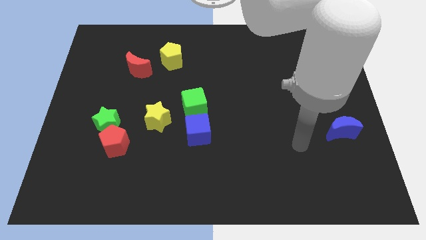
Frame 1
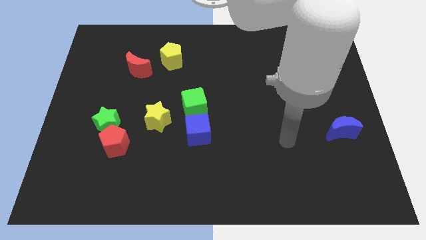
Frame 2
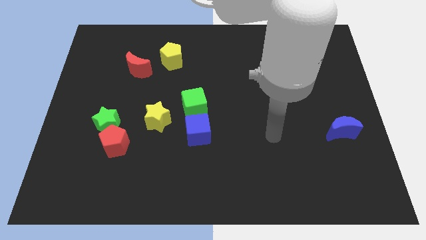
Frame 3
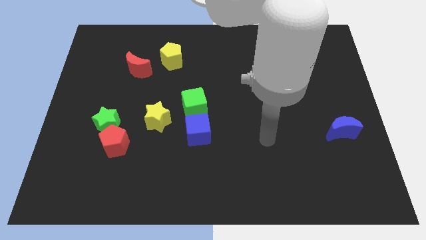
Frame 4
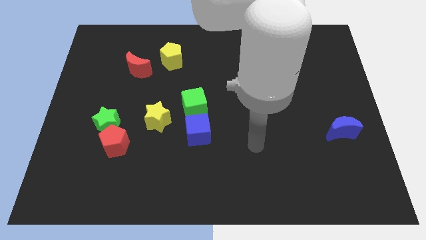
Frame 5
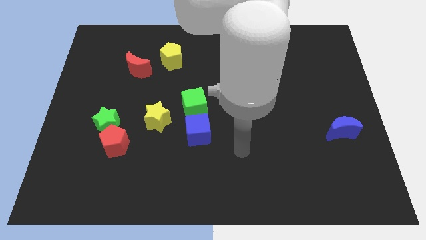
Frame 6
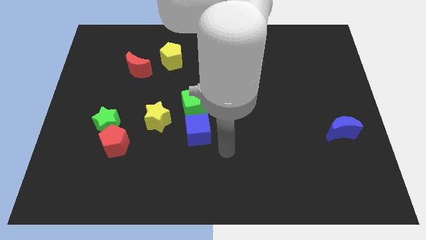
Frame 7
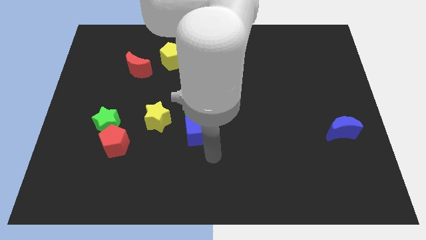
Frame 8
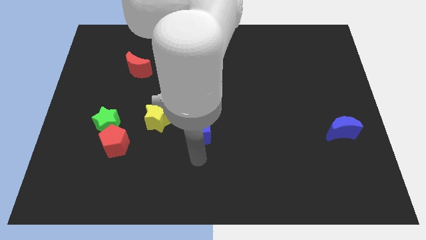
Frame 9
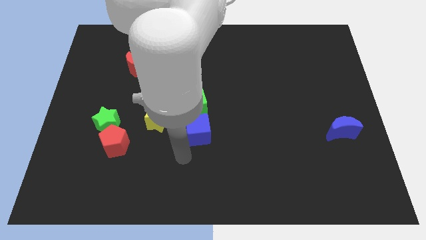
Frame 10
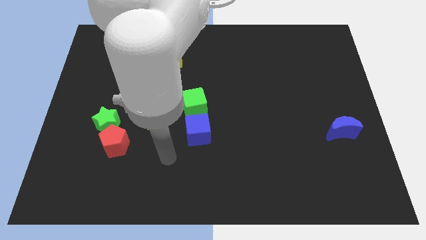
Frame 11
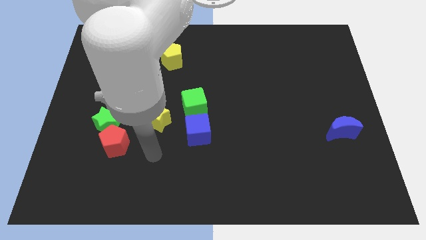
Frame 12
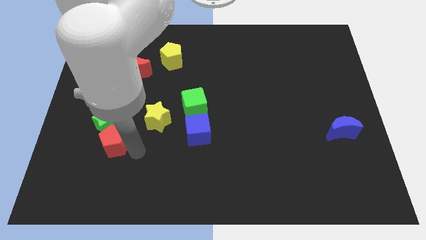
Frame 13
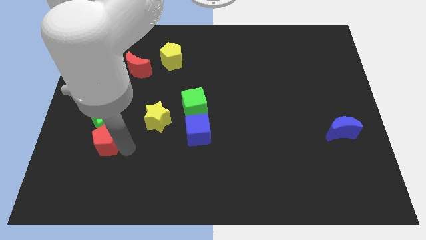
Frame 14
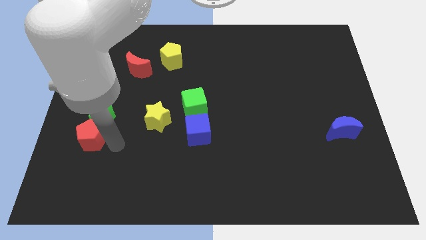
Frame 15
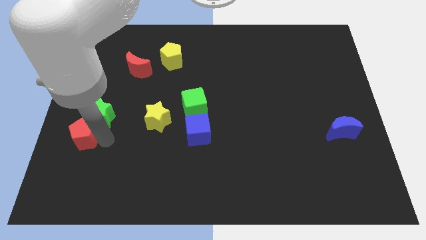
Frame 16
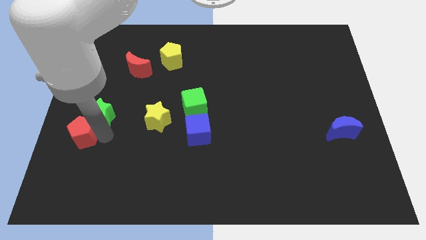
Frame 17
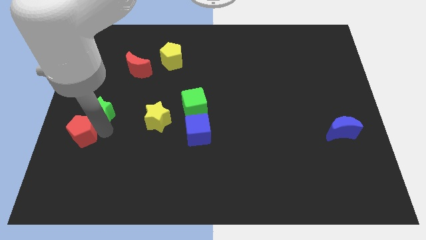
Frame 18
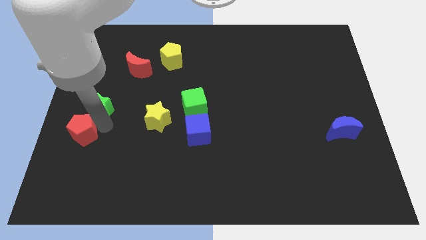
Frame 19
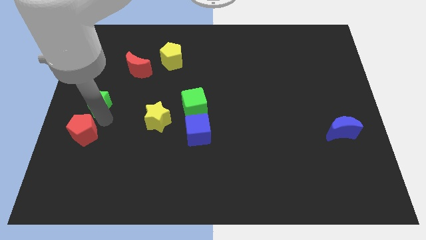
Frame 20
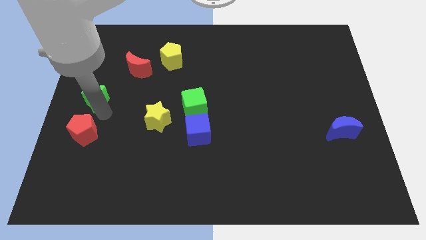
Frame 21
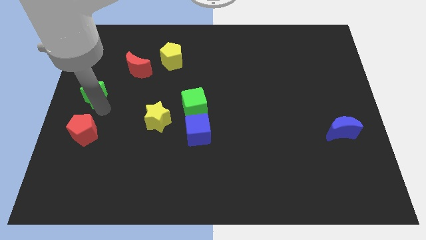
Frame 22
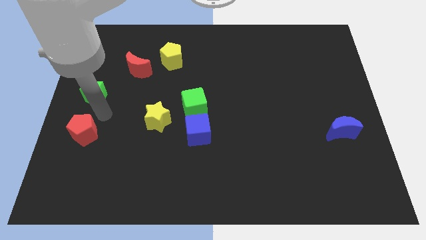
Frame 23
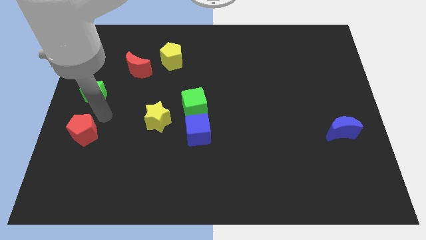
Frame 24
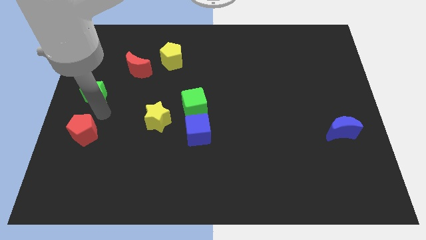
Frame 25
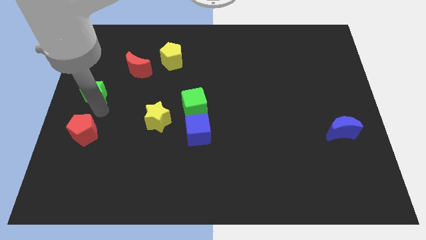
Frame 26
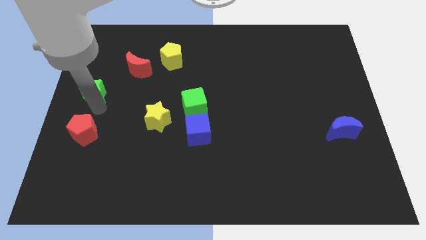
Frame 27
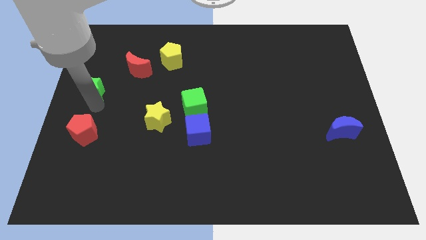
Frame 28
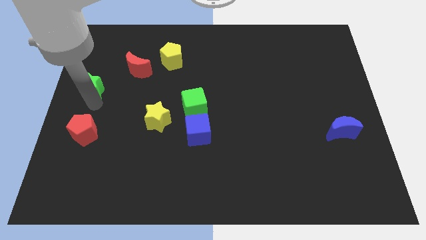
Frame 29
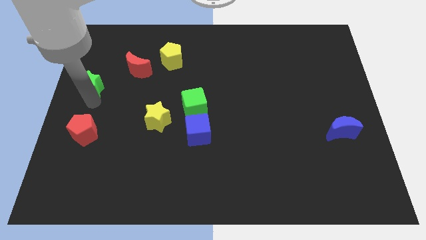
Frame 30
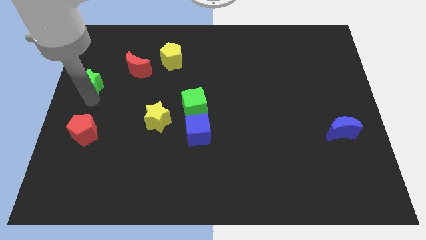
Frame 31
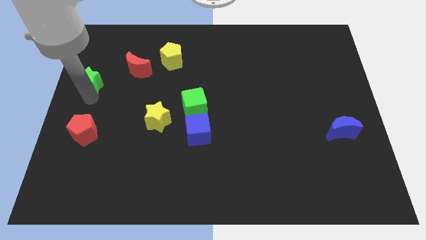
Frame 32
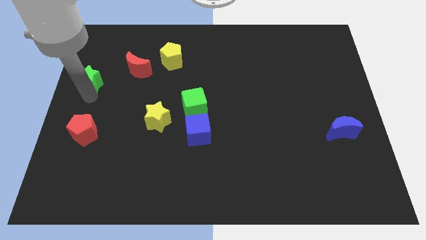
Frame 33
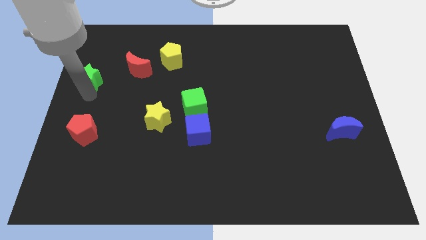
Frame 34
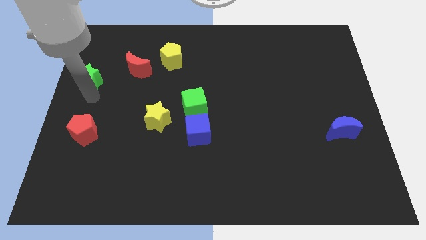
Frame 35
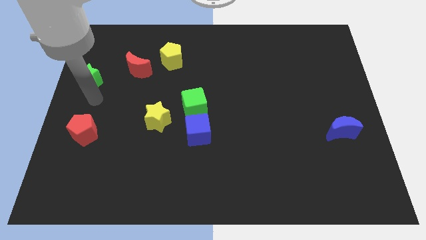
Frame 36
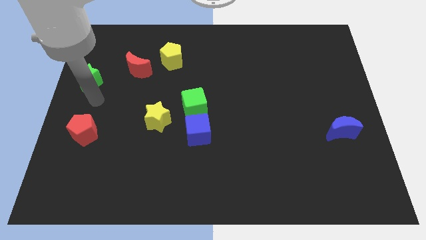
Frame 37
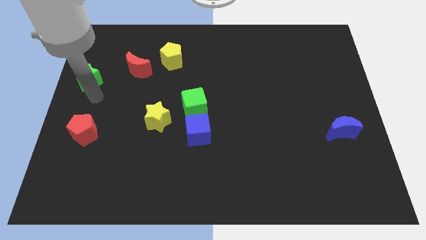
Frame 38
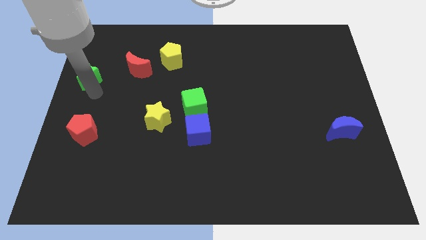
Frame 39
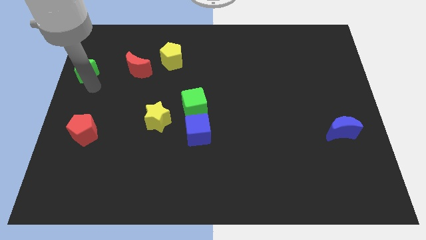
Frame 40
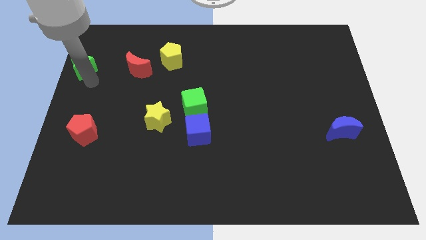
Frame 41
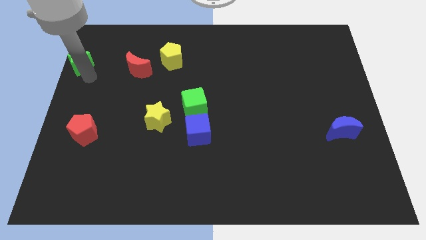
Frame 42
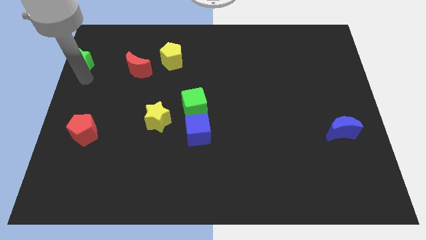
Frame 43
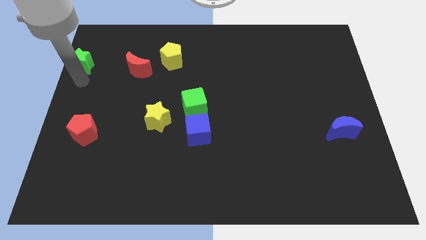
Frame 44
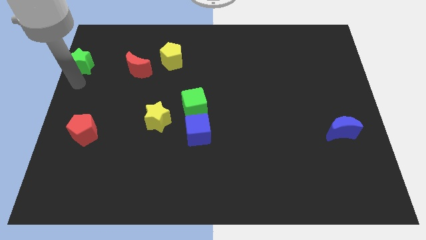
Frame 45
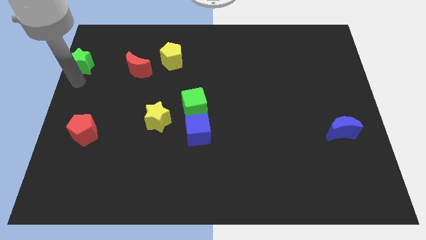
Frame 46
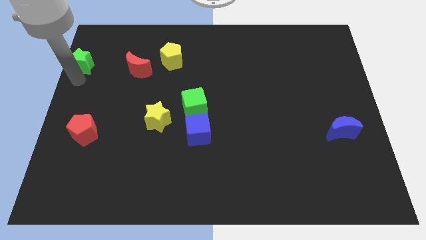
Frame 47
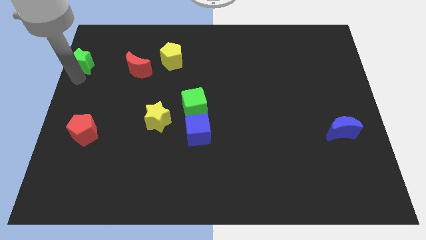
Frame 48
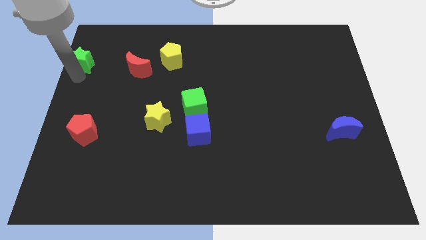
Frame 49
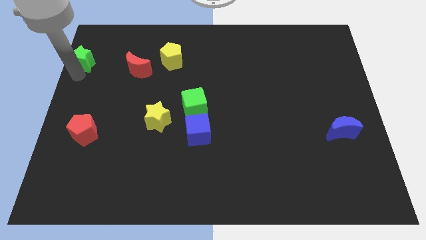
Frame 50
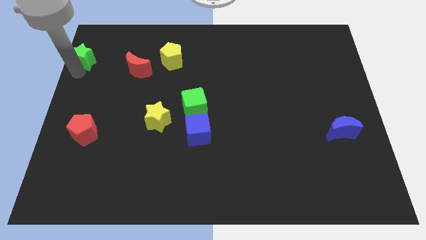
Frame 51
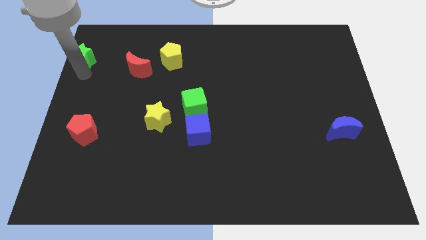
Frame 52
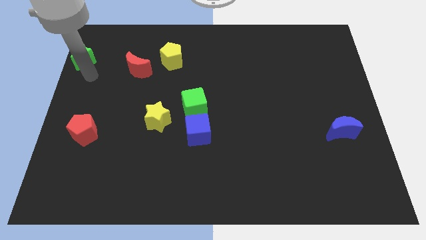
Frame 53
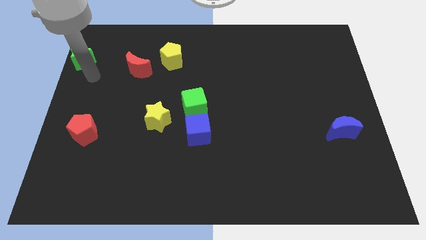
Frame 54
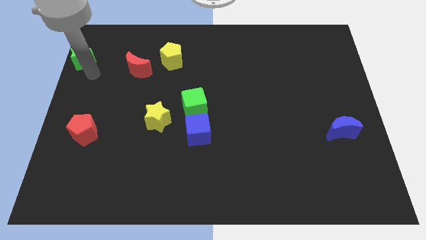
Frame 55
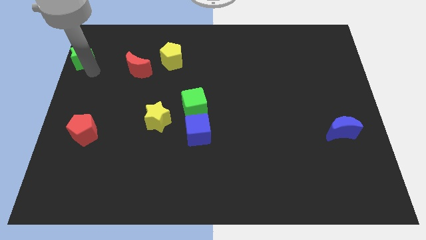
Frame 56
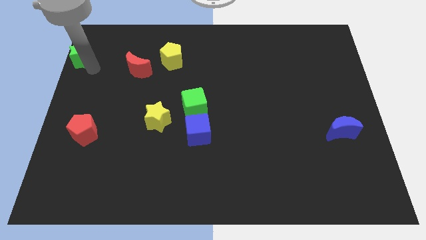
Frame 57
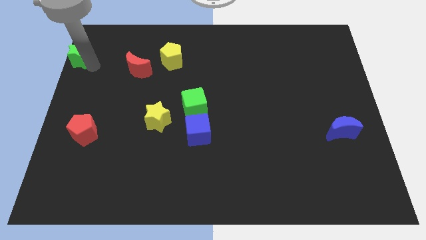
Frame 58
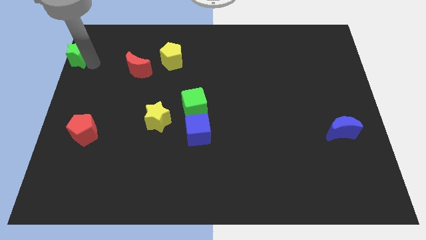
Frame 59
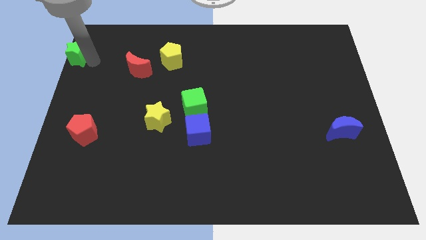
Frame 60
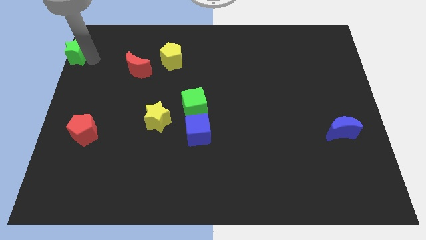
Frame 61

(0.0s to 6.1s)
push the green star to the upper left corner

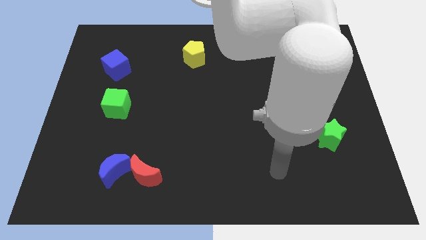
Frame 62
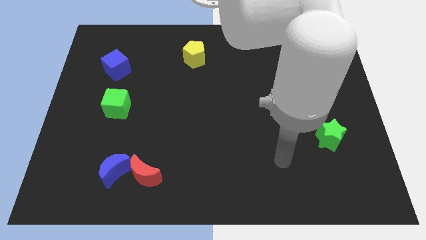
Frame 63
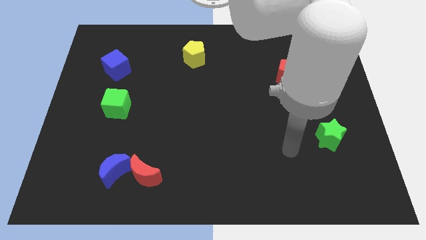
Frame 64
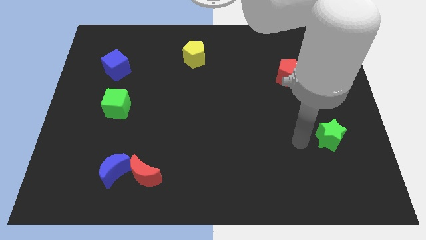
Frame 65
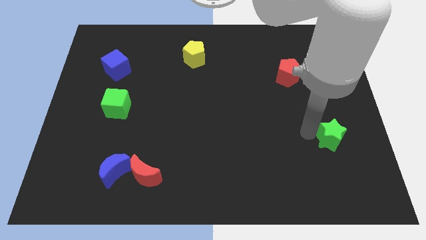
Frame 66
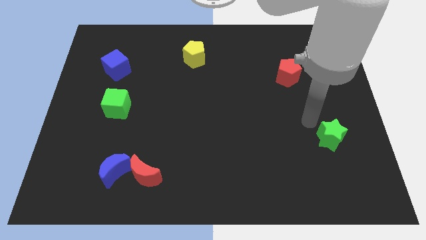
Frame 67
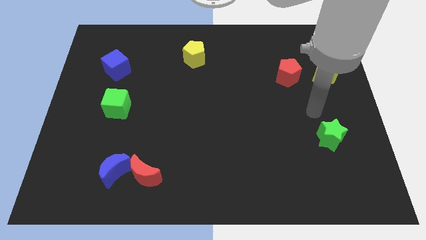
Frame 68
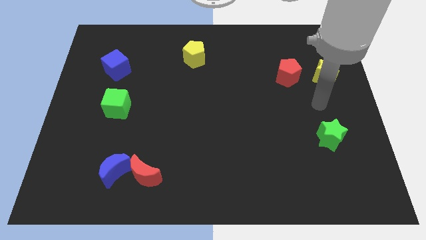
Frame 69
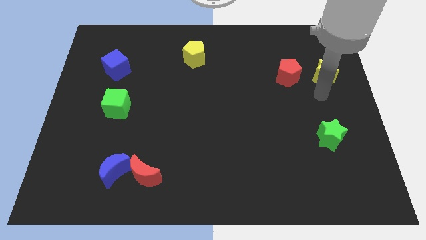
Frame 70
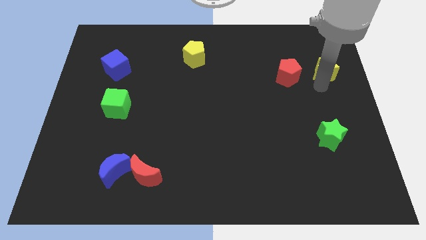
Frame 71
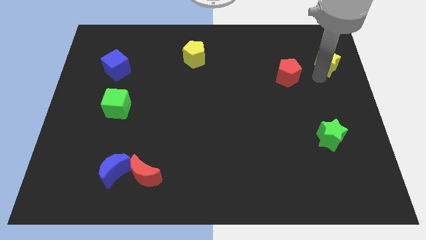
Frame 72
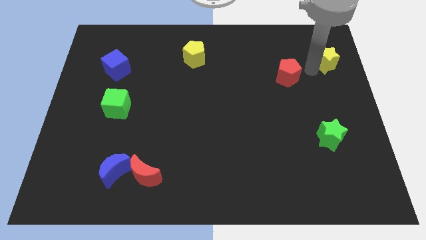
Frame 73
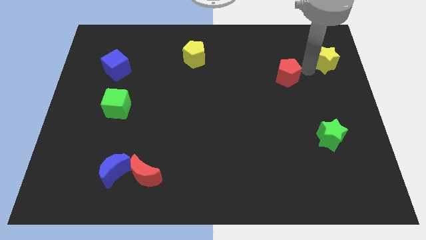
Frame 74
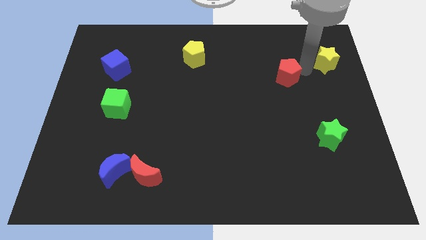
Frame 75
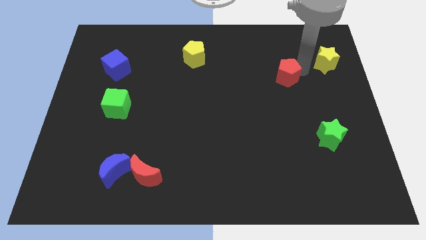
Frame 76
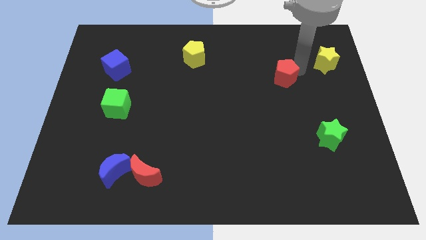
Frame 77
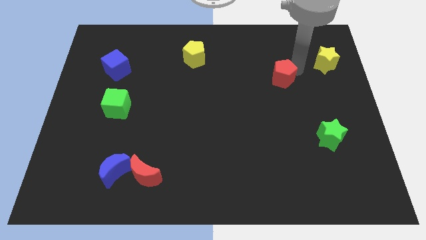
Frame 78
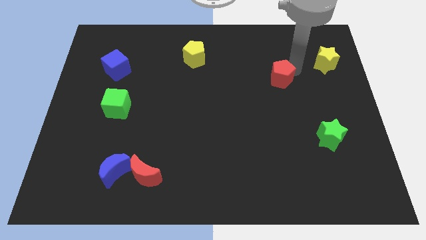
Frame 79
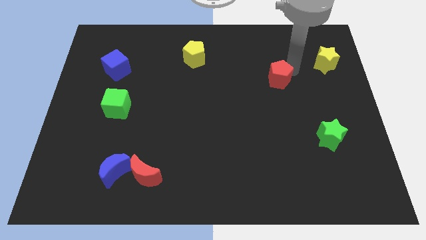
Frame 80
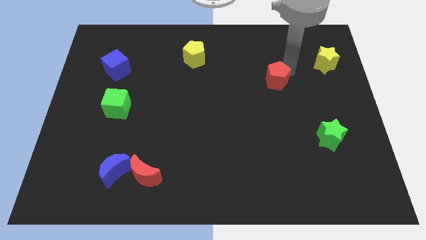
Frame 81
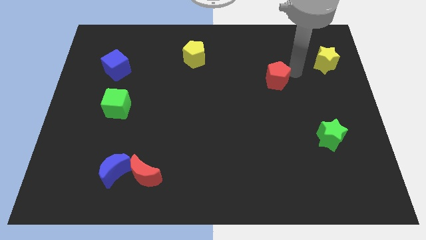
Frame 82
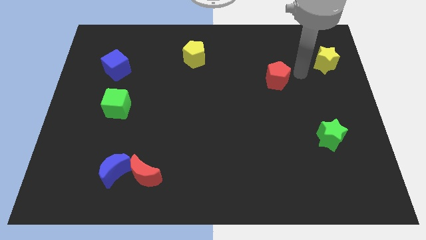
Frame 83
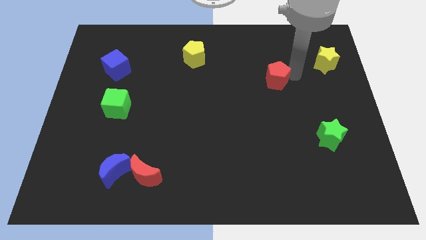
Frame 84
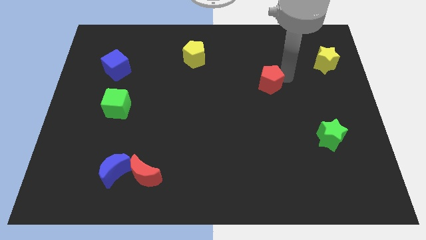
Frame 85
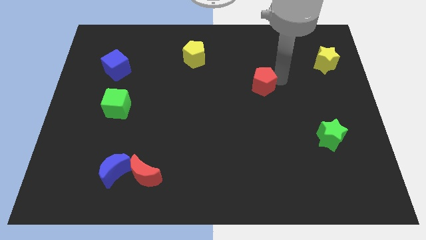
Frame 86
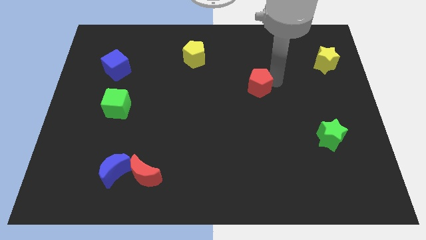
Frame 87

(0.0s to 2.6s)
put the red pentagon to the middle
